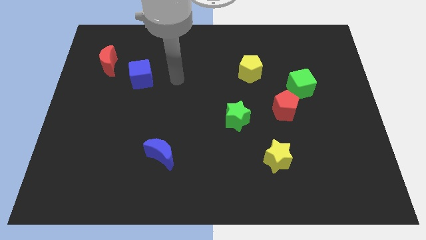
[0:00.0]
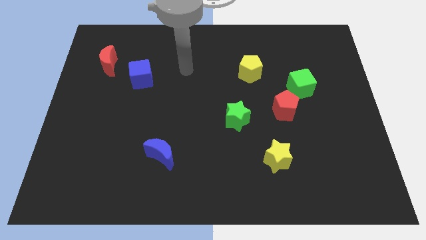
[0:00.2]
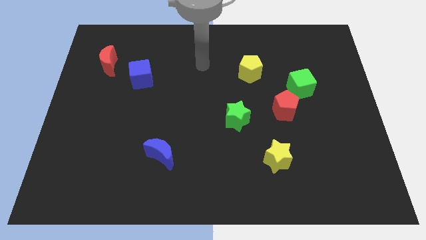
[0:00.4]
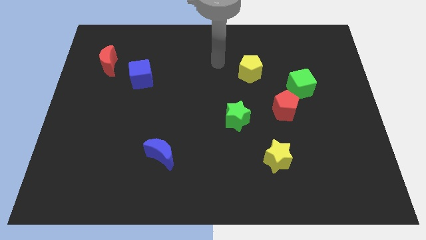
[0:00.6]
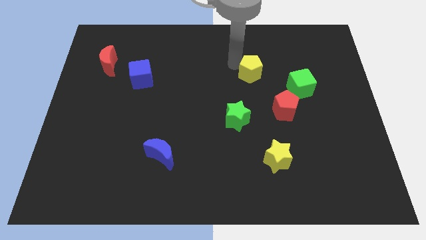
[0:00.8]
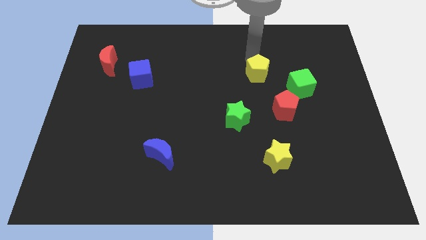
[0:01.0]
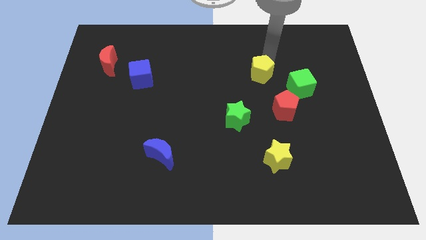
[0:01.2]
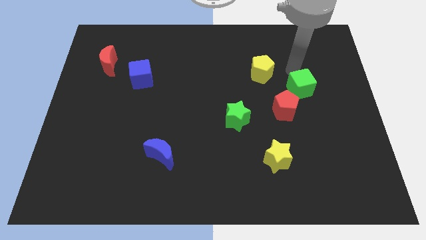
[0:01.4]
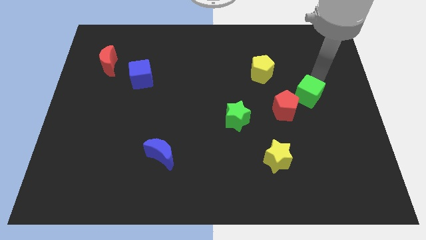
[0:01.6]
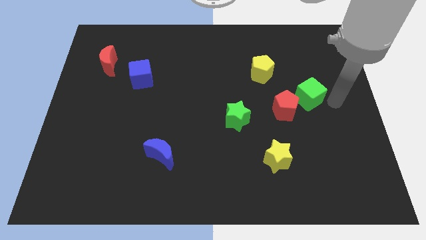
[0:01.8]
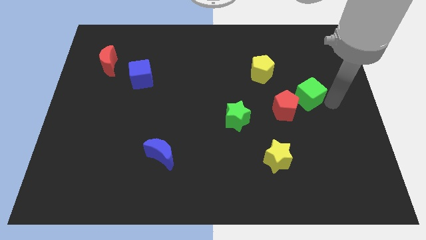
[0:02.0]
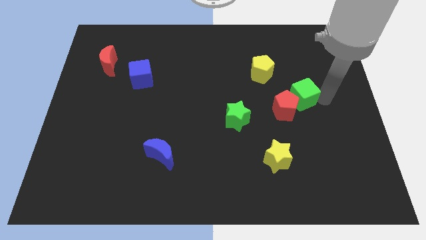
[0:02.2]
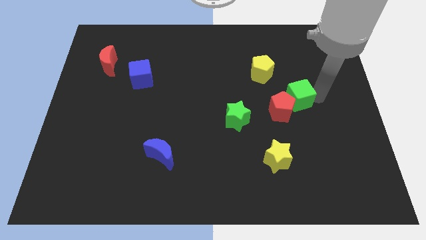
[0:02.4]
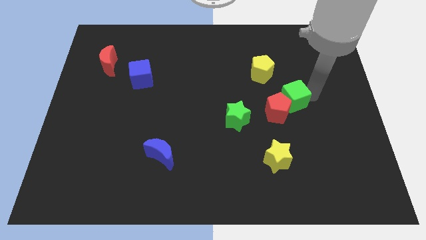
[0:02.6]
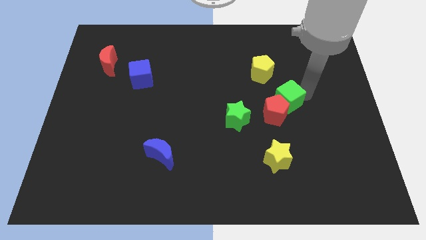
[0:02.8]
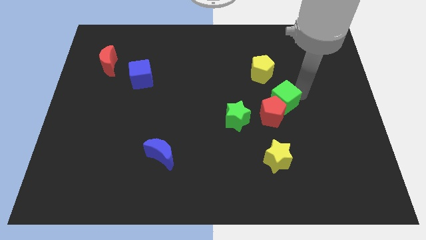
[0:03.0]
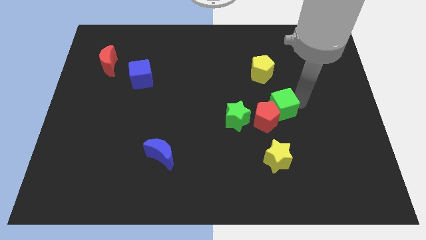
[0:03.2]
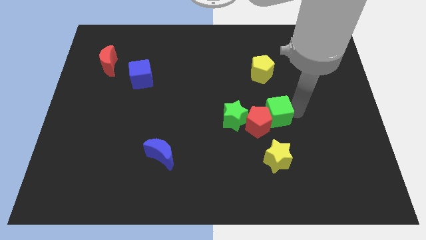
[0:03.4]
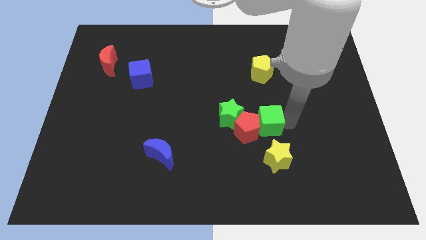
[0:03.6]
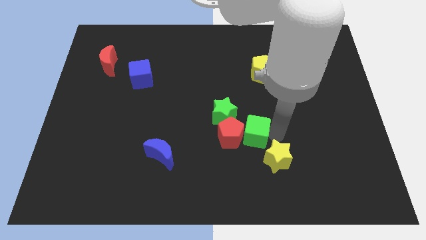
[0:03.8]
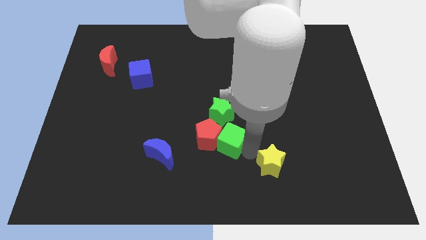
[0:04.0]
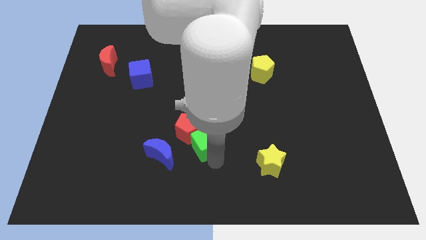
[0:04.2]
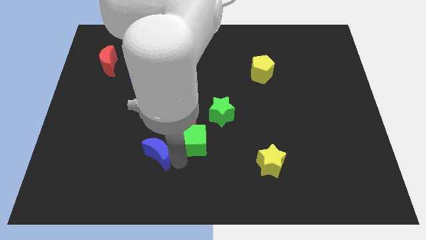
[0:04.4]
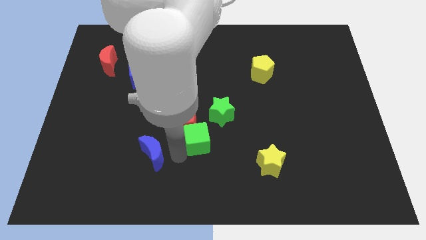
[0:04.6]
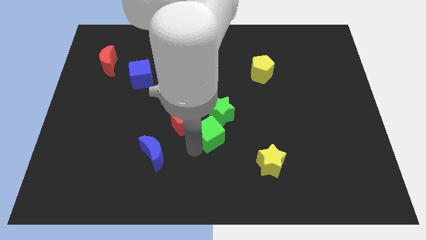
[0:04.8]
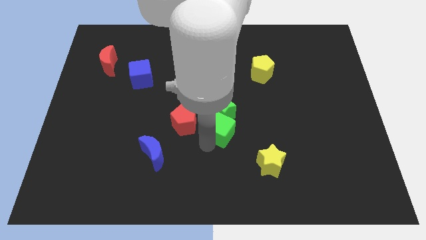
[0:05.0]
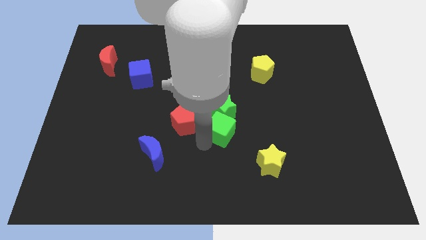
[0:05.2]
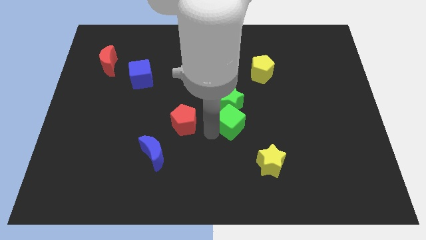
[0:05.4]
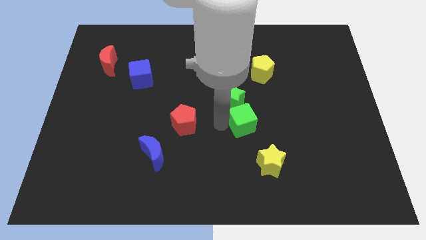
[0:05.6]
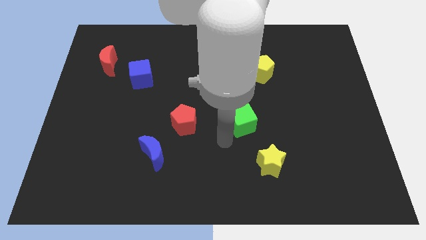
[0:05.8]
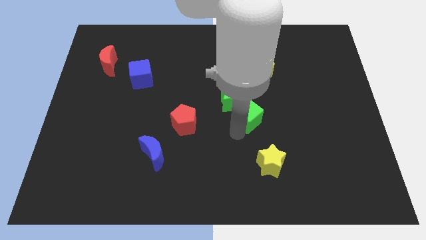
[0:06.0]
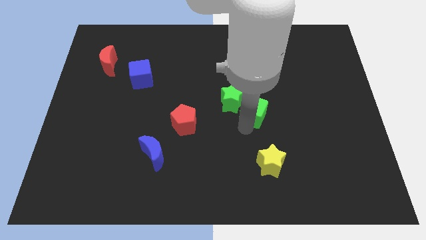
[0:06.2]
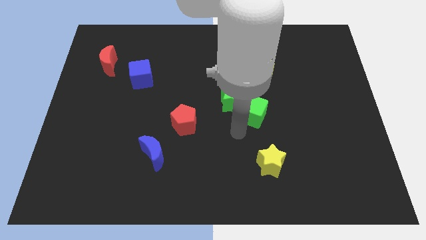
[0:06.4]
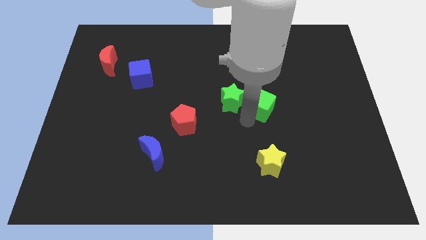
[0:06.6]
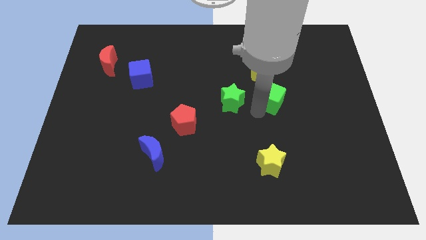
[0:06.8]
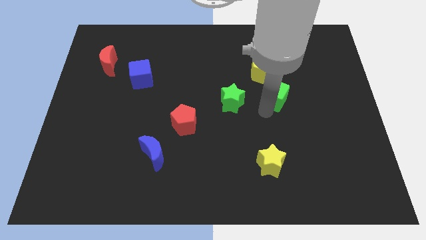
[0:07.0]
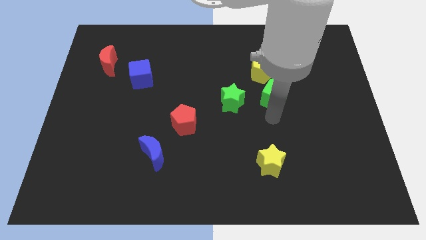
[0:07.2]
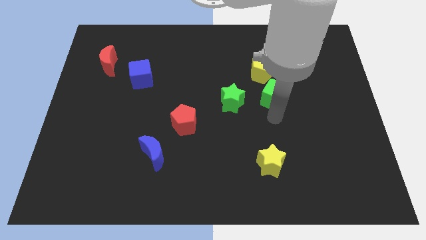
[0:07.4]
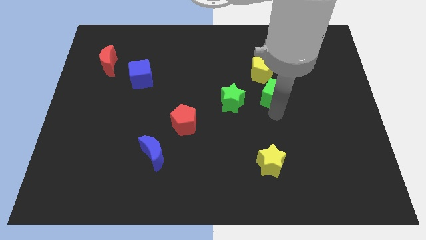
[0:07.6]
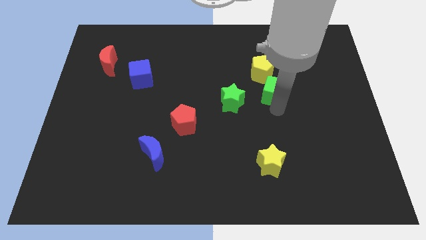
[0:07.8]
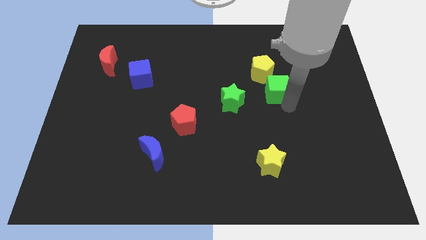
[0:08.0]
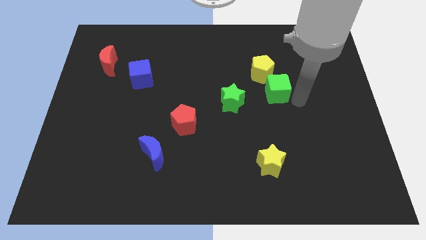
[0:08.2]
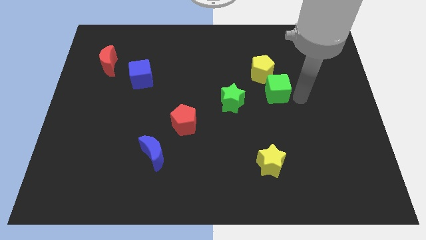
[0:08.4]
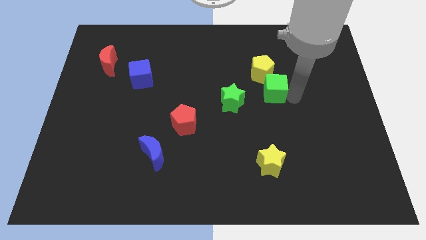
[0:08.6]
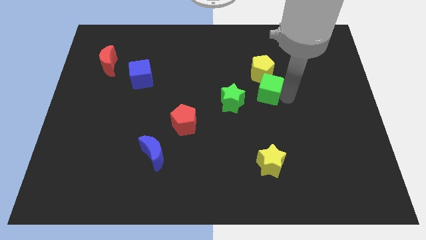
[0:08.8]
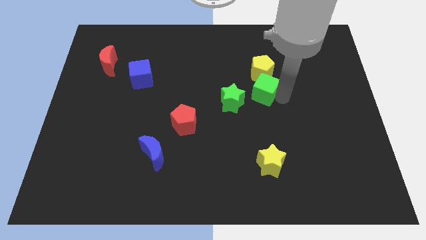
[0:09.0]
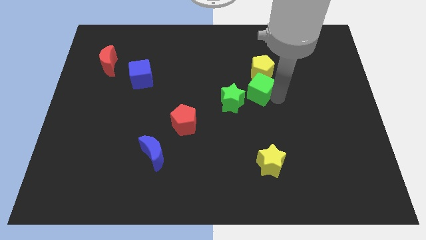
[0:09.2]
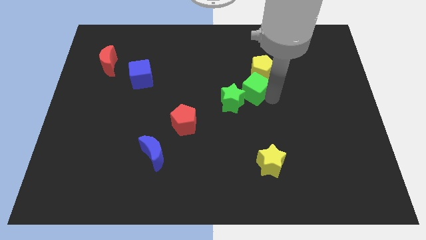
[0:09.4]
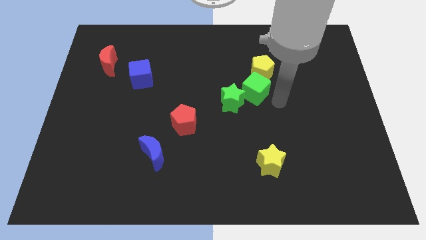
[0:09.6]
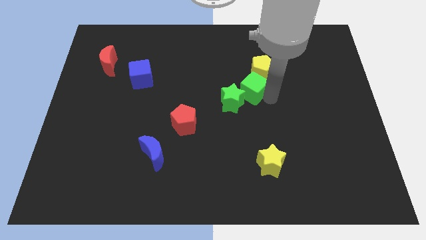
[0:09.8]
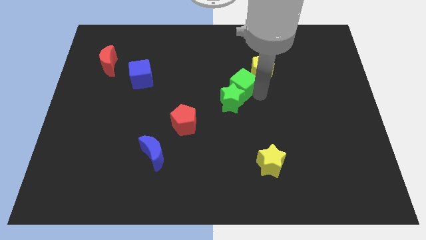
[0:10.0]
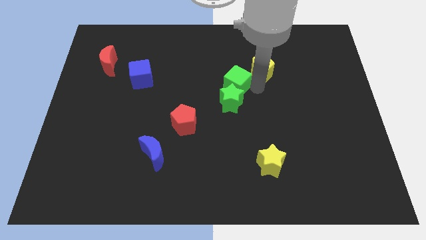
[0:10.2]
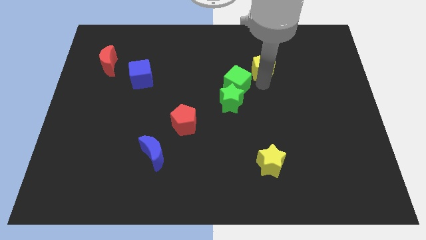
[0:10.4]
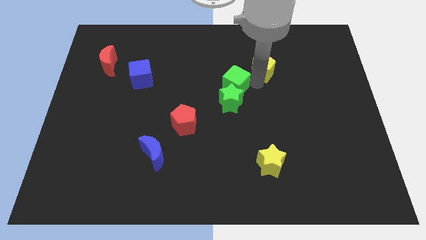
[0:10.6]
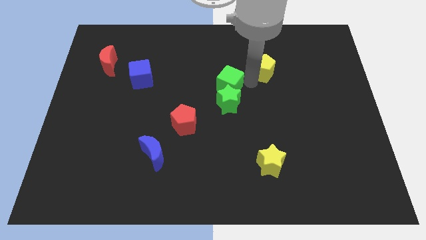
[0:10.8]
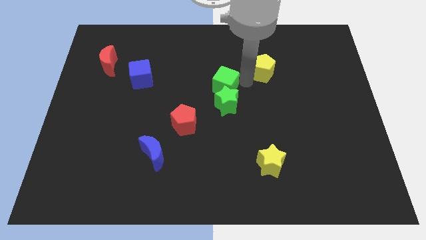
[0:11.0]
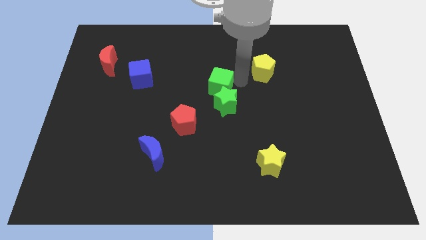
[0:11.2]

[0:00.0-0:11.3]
slide the green cube left

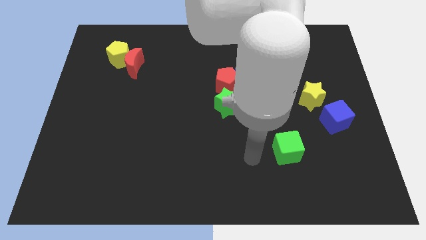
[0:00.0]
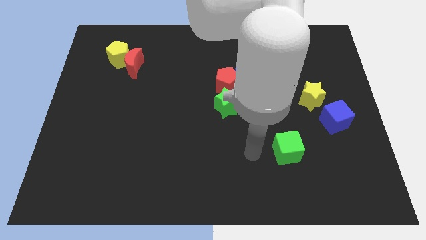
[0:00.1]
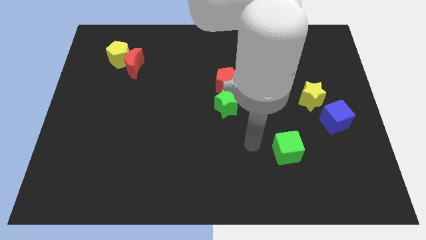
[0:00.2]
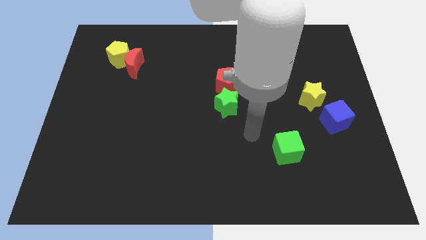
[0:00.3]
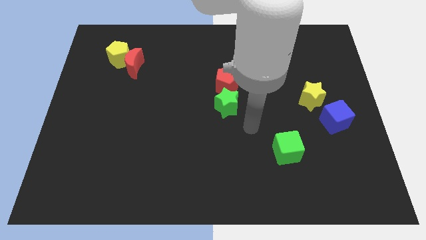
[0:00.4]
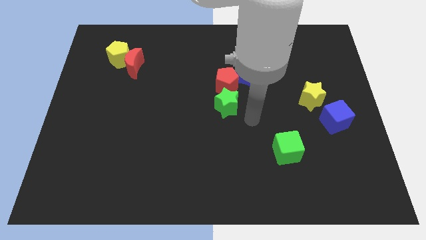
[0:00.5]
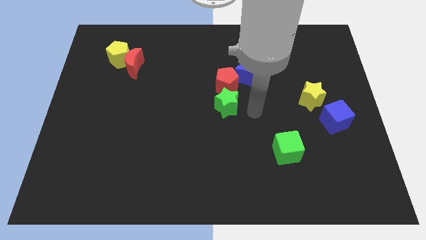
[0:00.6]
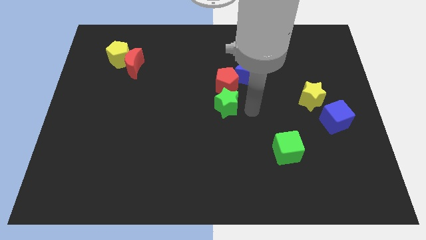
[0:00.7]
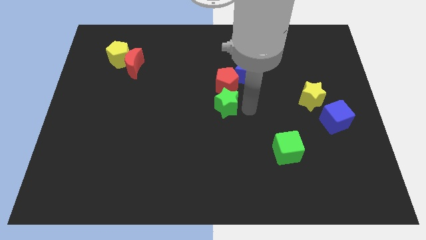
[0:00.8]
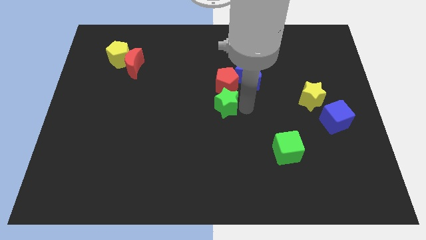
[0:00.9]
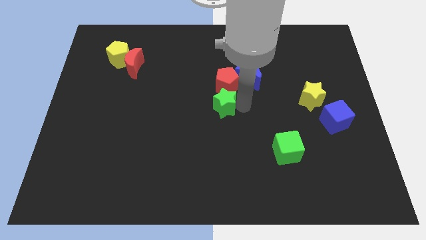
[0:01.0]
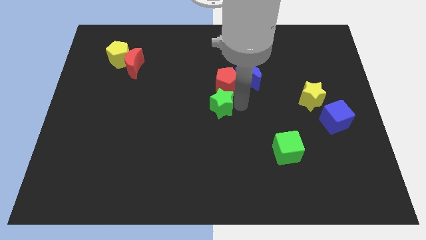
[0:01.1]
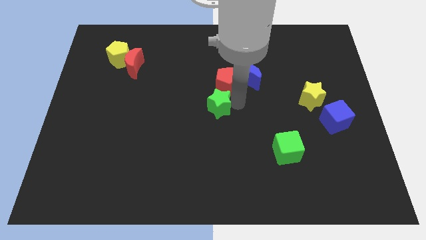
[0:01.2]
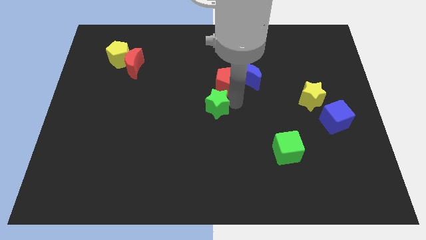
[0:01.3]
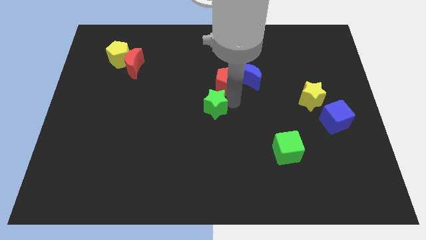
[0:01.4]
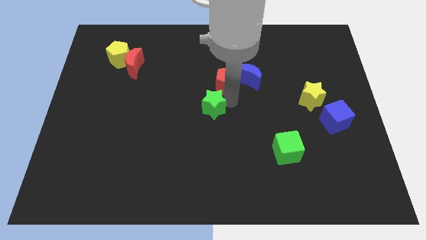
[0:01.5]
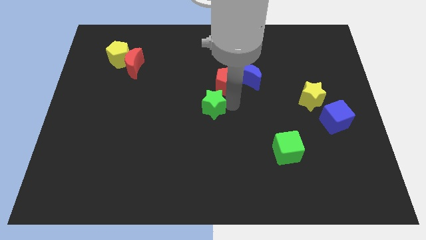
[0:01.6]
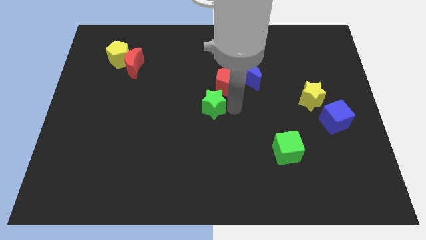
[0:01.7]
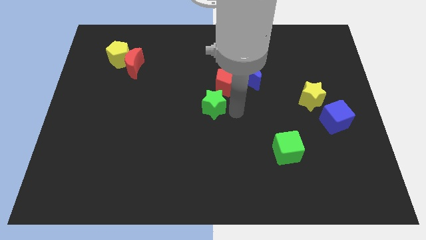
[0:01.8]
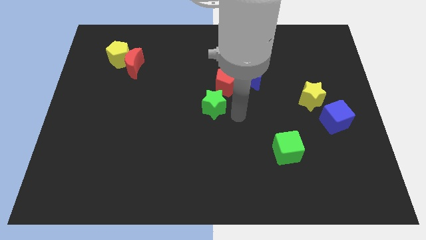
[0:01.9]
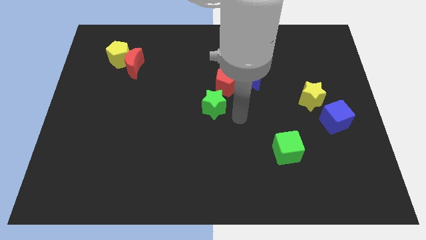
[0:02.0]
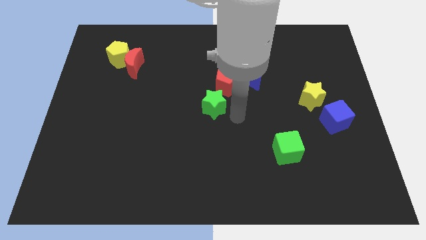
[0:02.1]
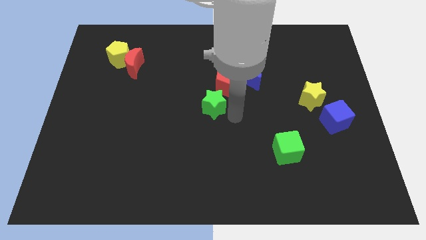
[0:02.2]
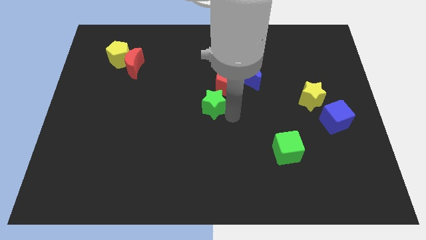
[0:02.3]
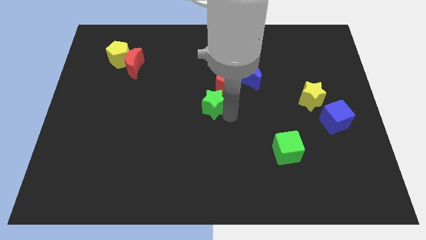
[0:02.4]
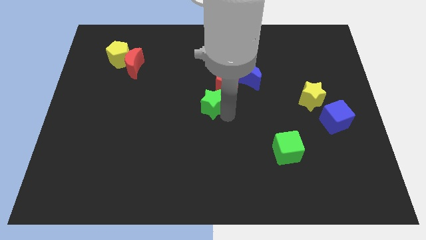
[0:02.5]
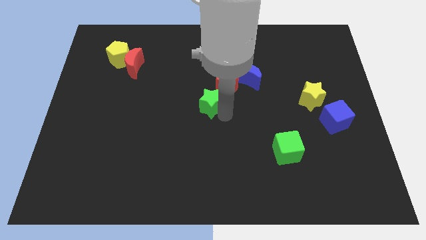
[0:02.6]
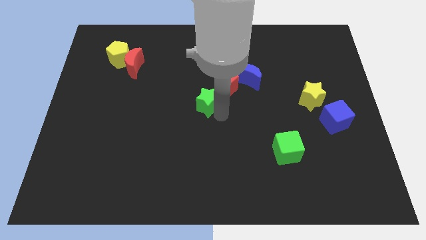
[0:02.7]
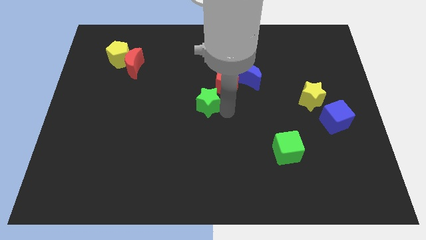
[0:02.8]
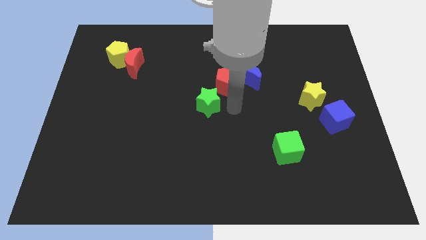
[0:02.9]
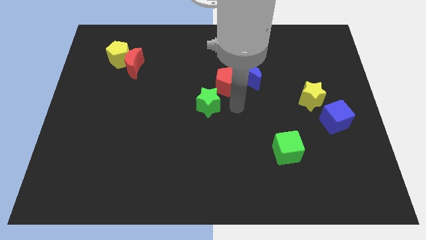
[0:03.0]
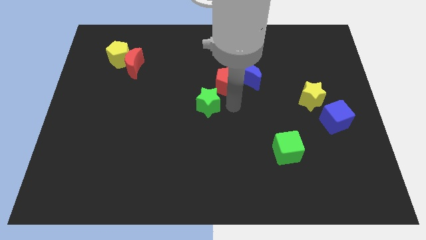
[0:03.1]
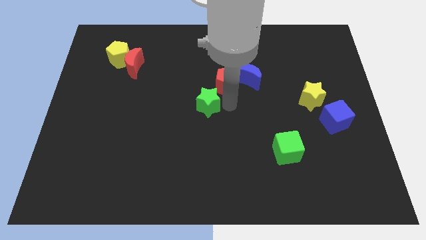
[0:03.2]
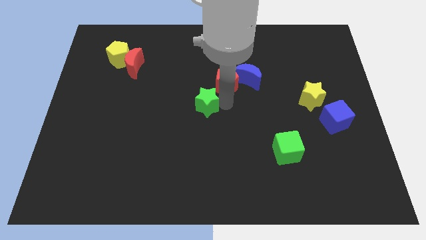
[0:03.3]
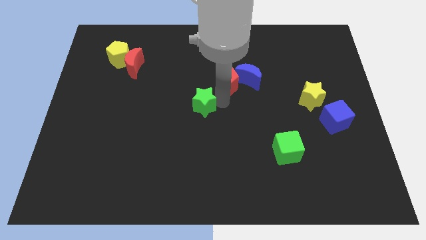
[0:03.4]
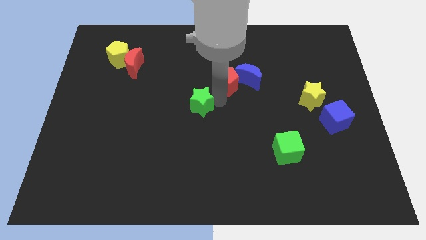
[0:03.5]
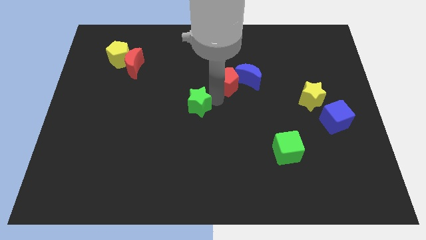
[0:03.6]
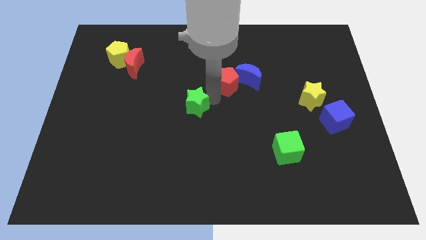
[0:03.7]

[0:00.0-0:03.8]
slightly push the green star to the left
